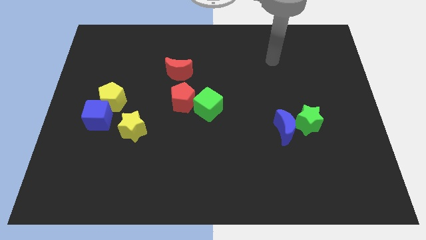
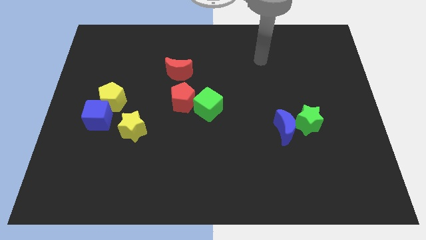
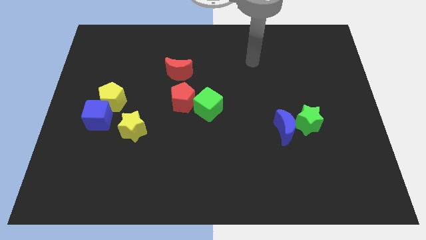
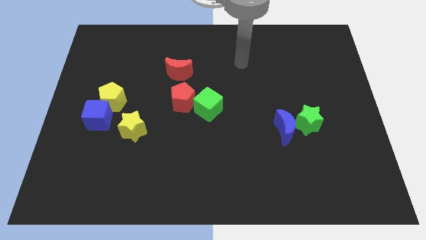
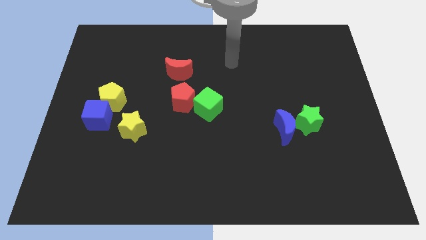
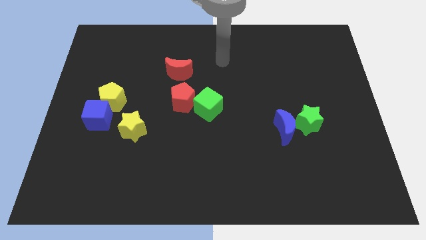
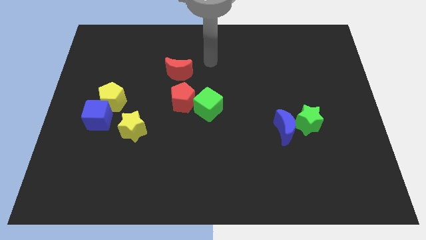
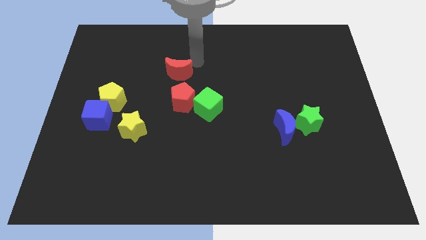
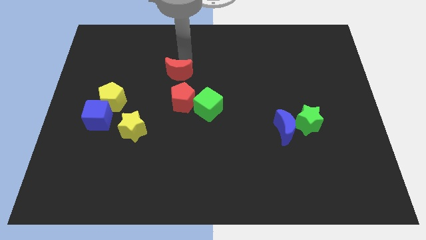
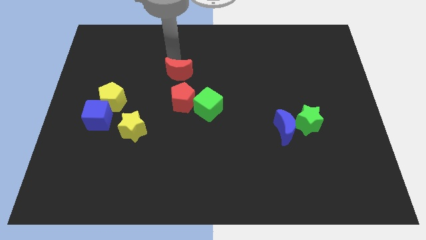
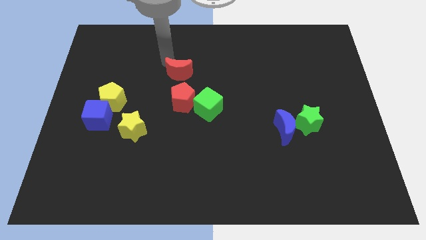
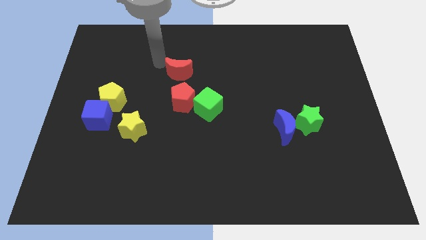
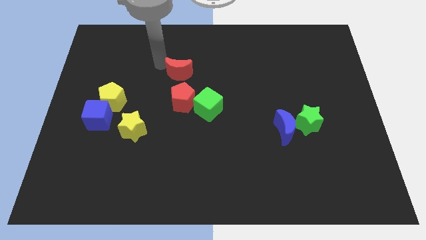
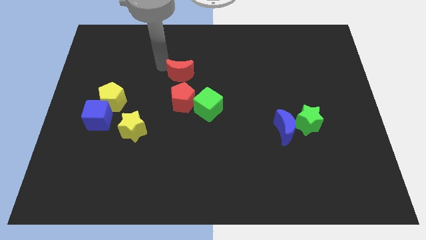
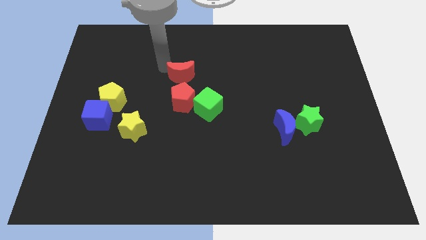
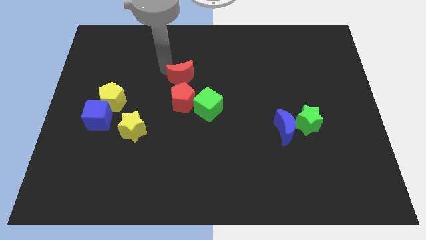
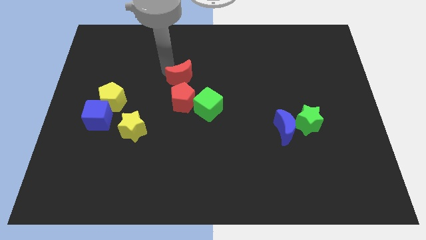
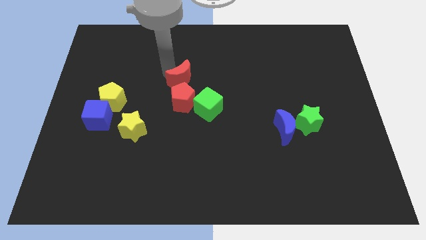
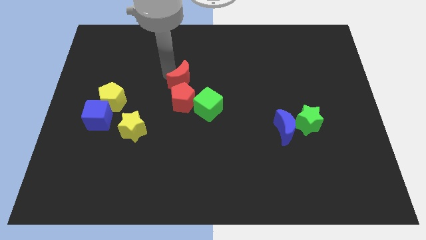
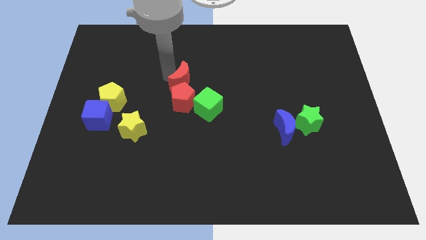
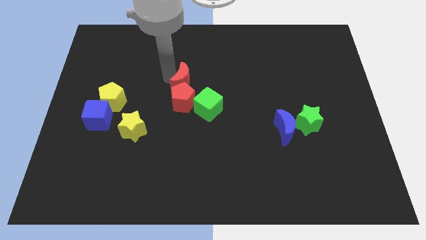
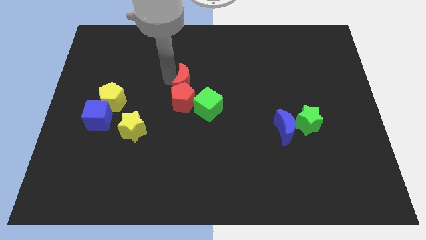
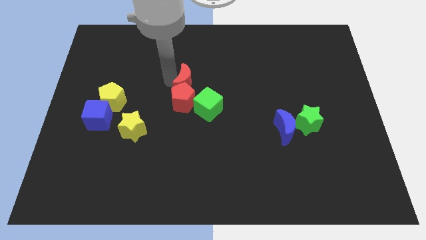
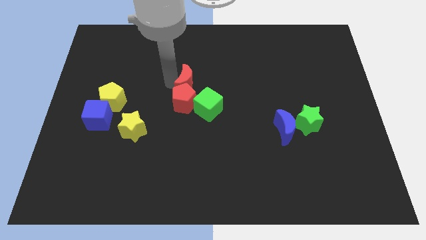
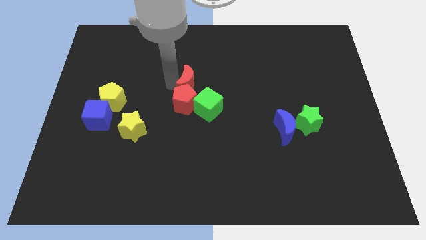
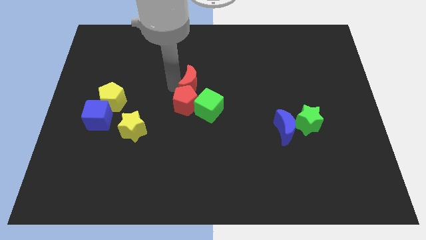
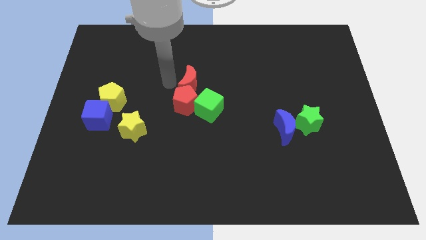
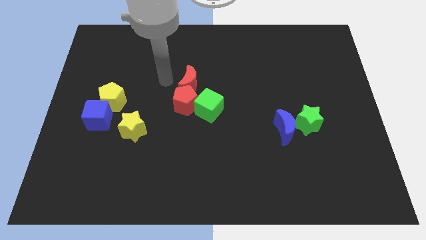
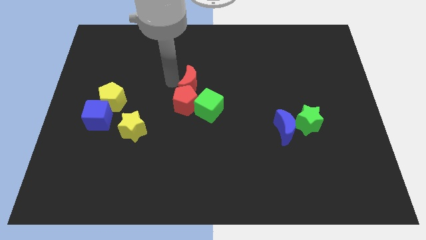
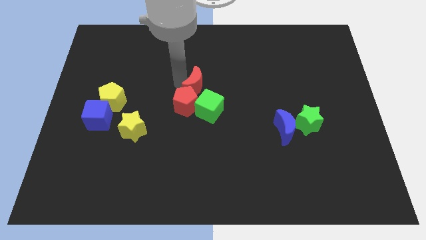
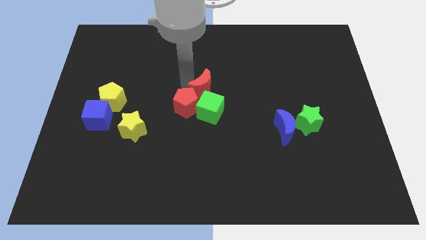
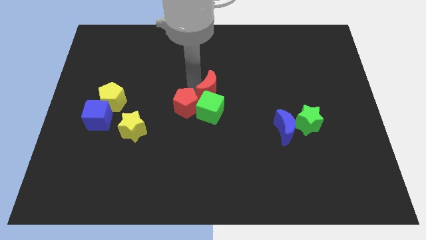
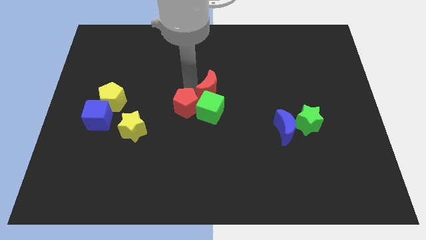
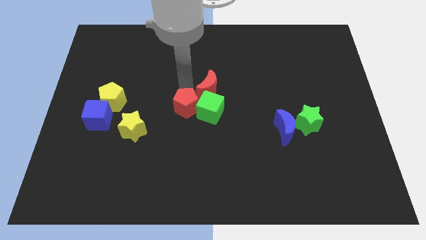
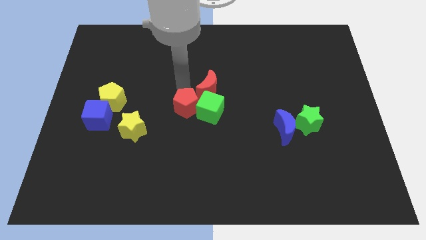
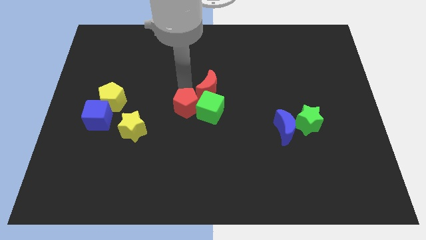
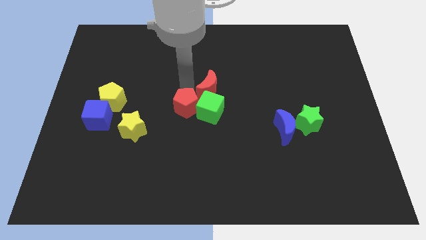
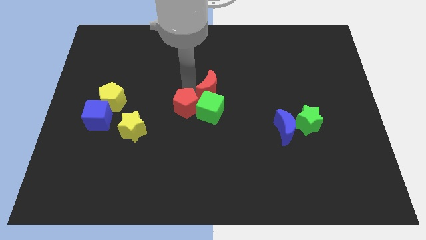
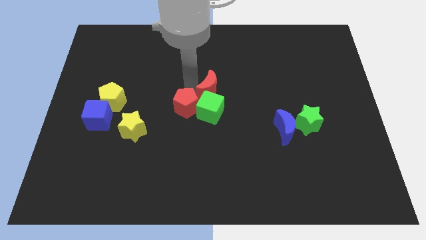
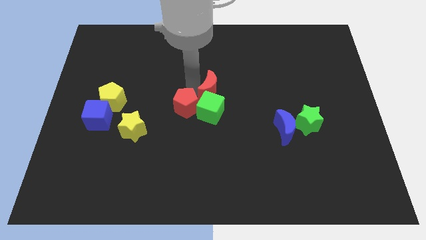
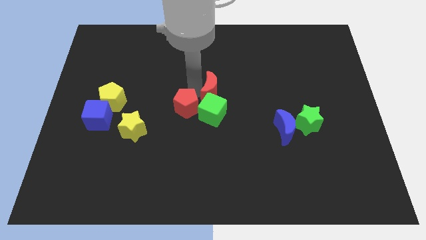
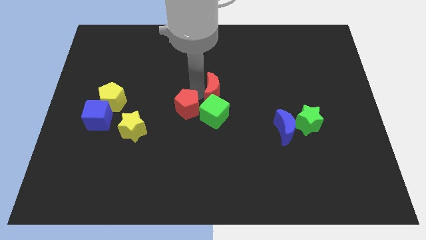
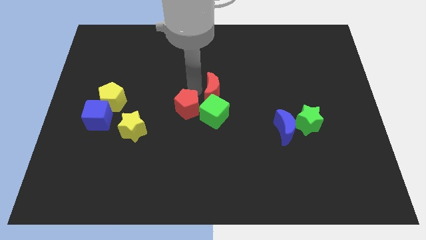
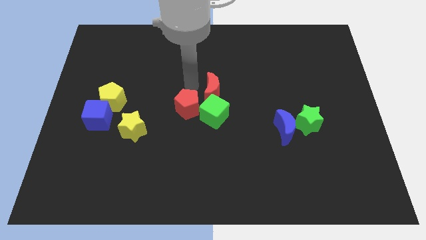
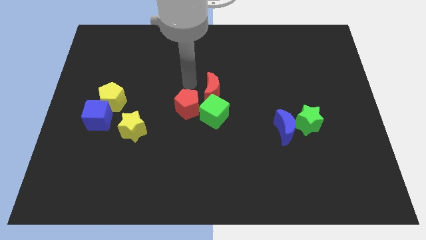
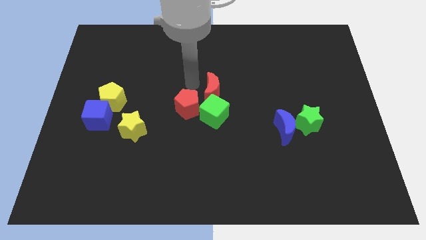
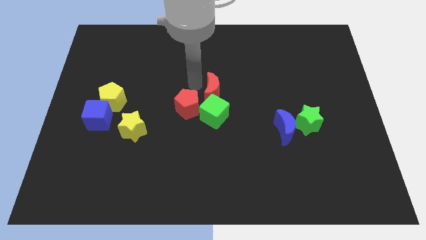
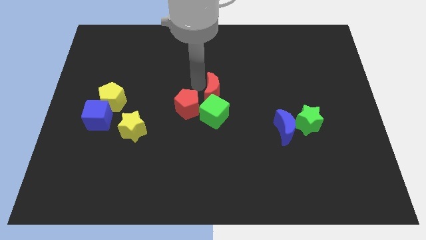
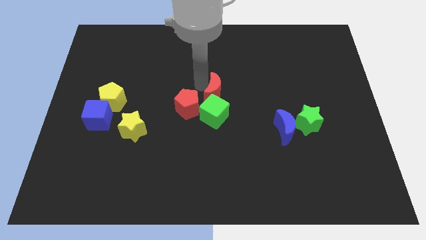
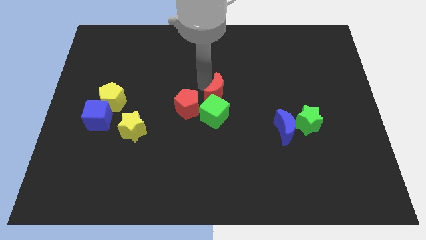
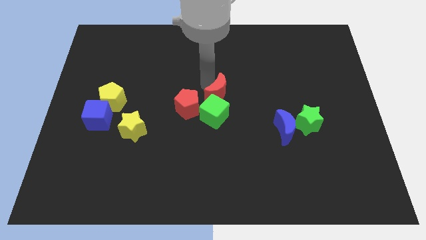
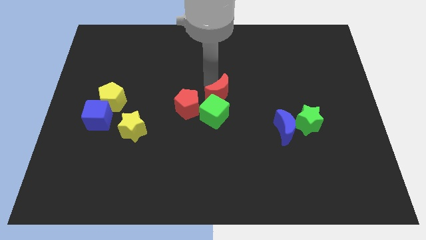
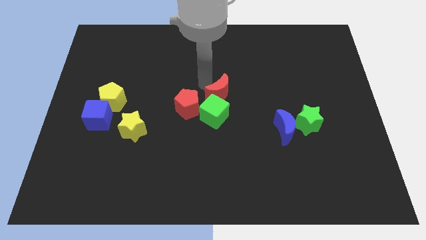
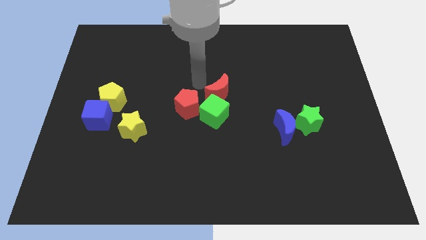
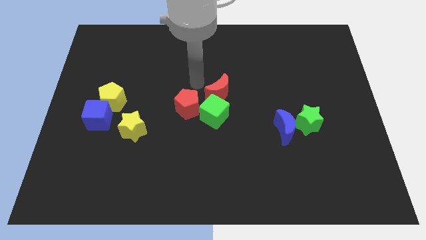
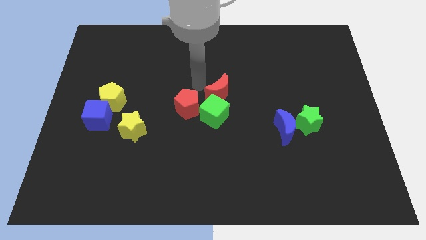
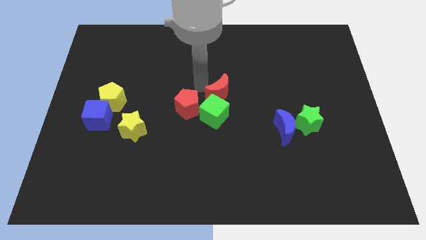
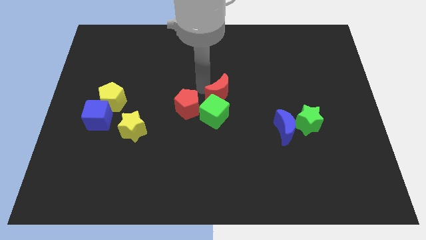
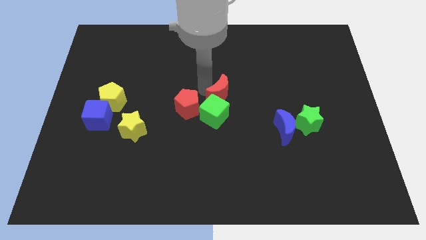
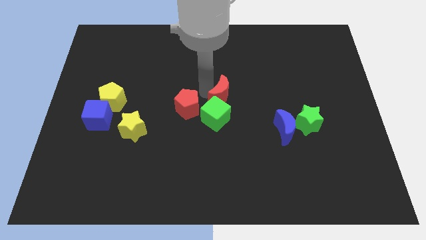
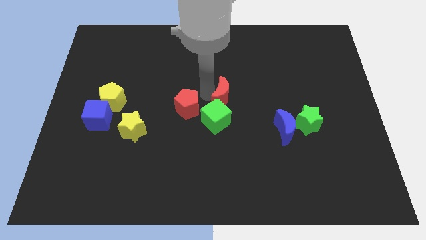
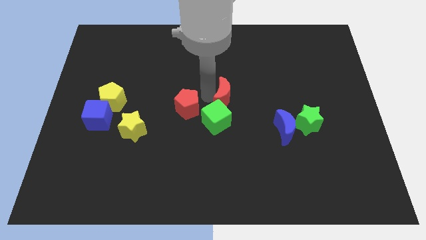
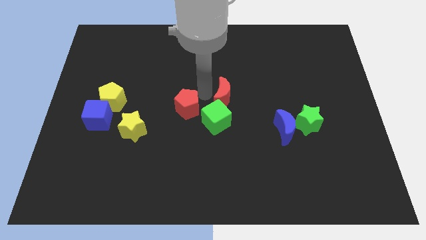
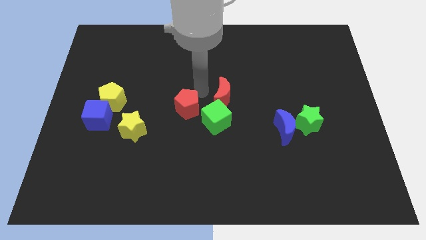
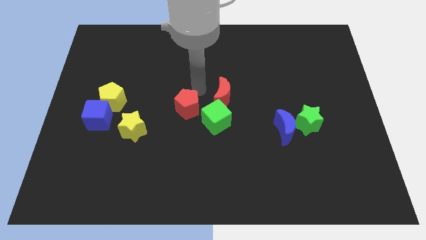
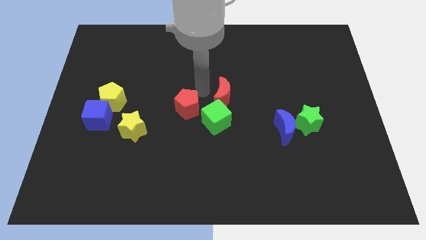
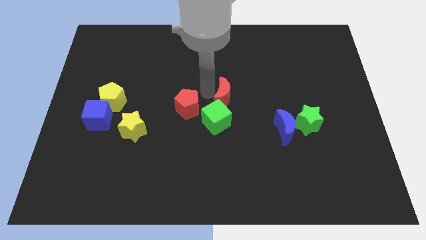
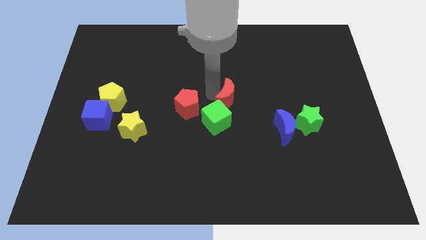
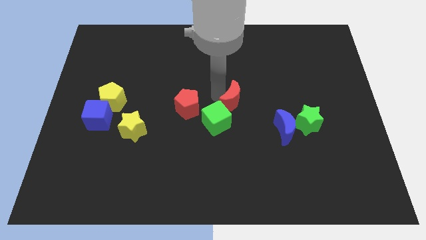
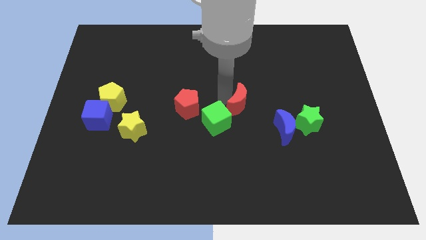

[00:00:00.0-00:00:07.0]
move the red moon diagonally up and to the left of the blue moon
